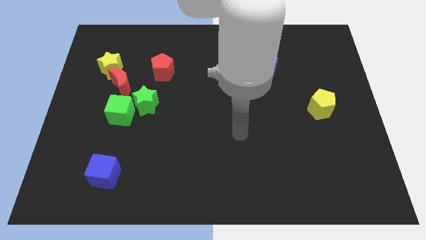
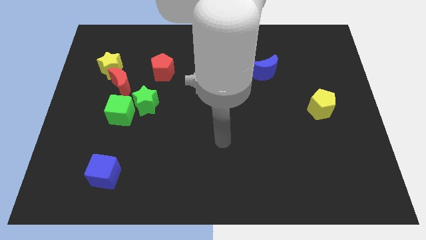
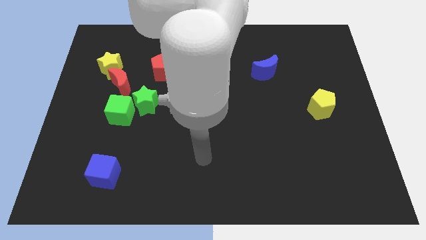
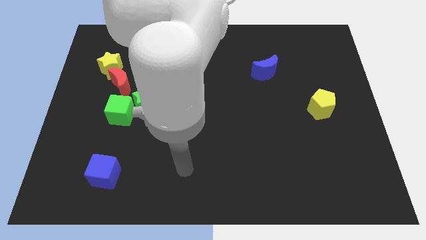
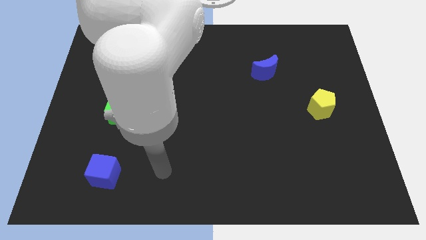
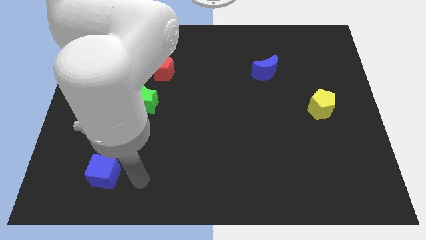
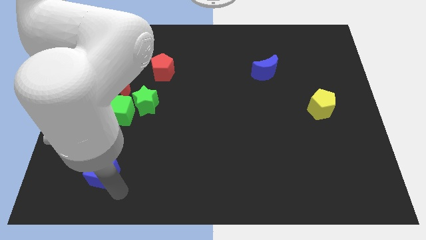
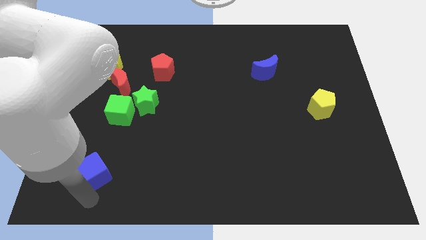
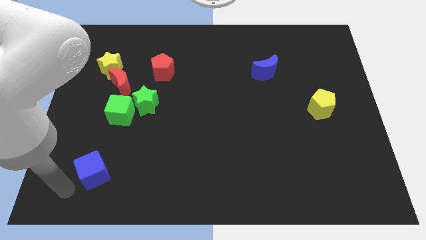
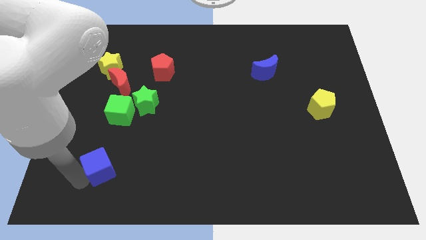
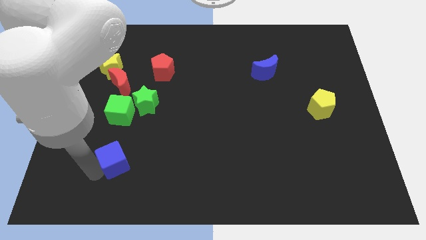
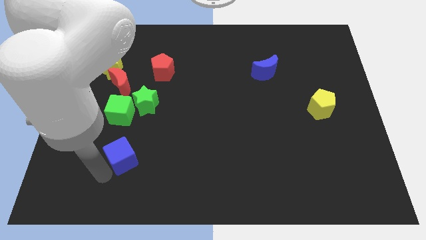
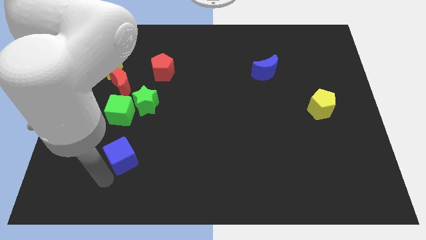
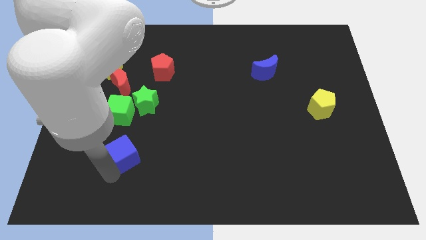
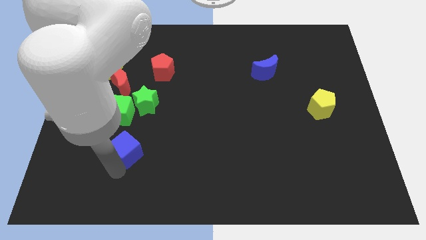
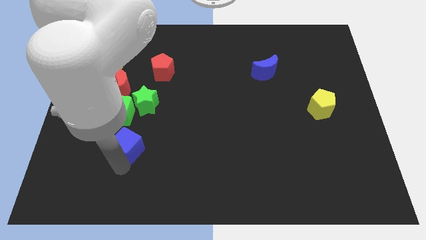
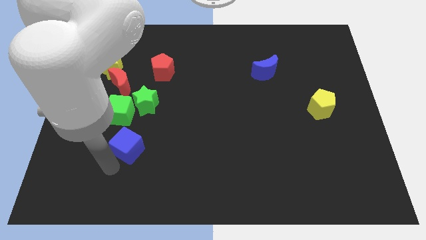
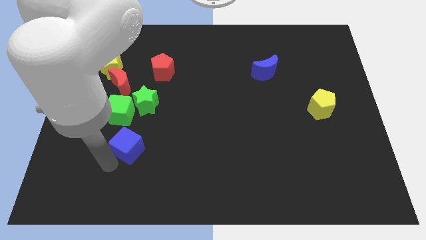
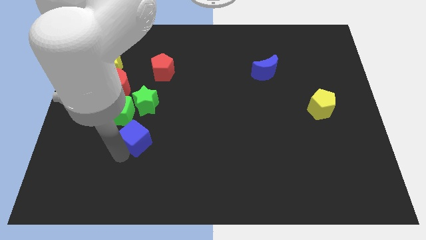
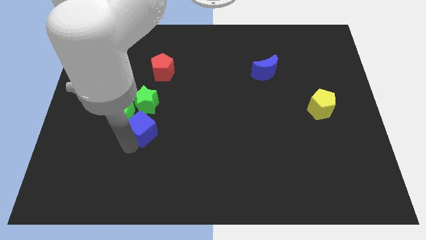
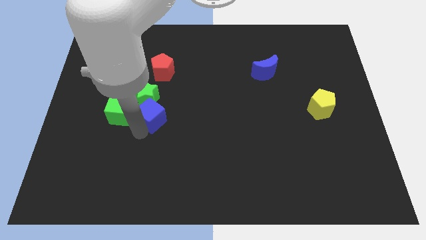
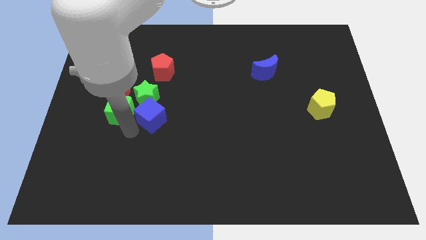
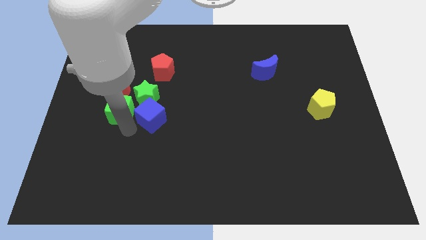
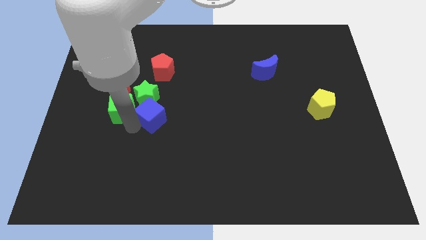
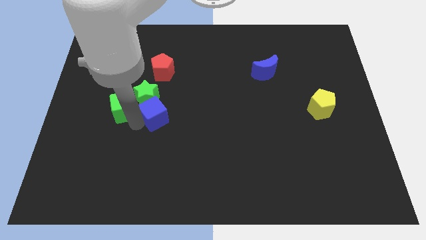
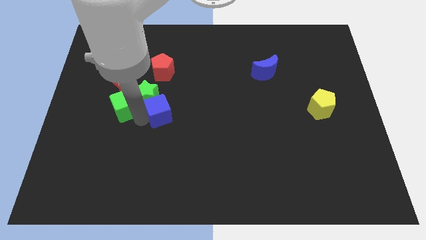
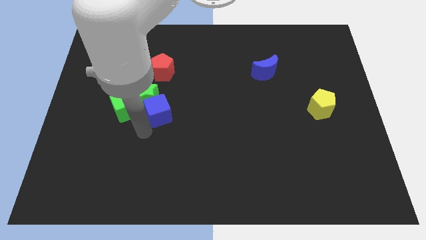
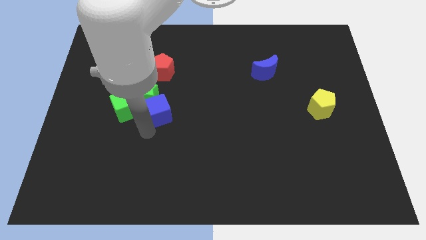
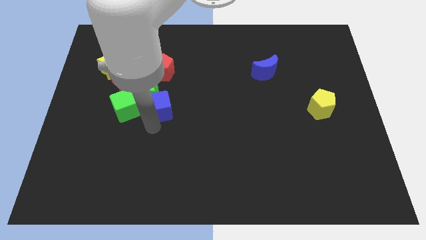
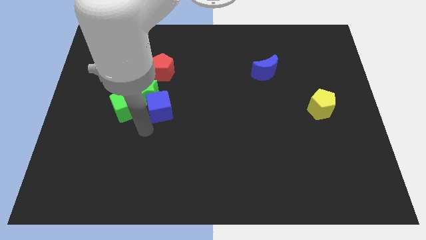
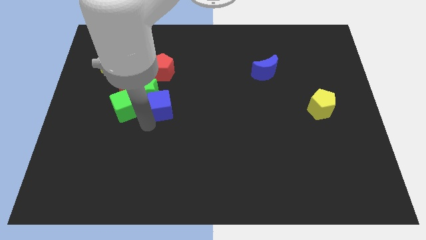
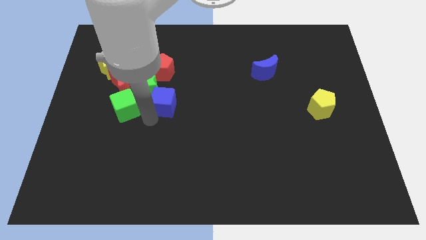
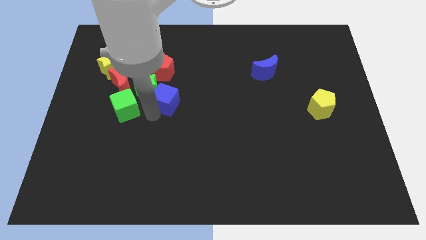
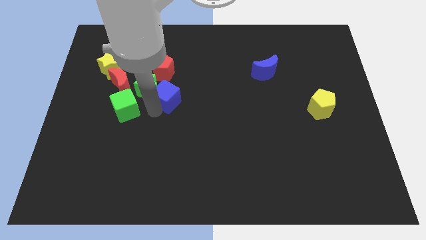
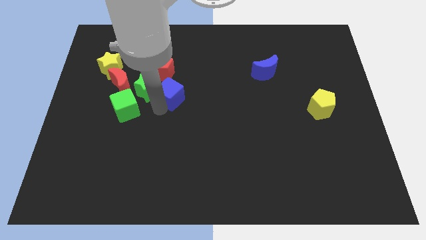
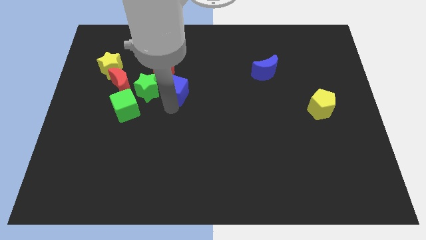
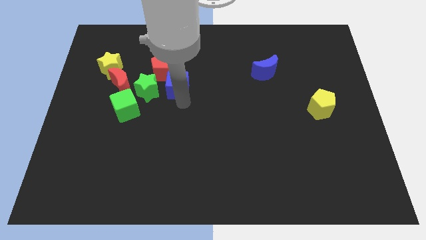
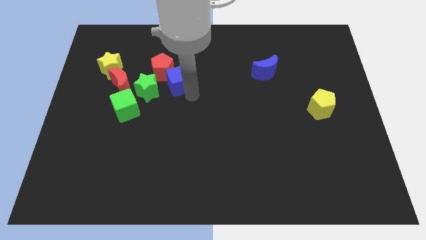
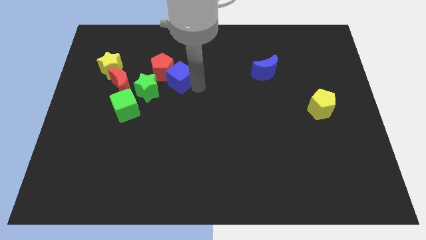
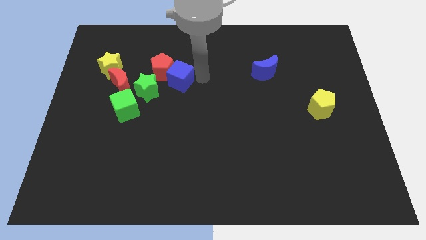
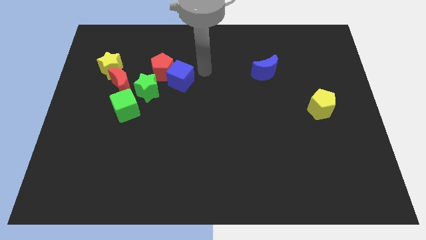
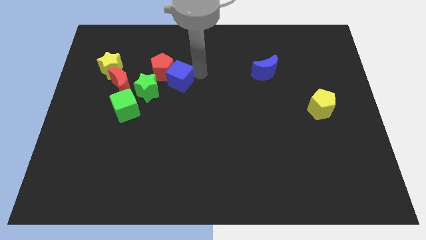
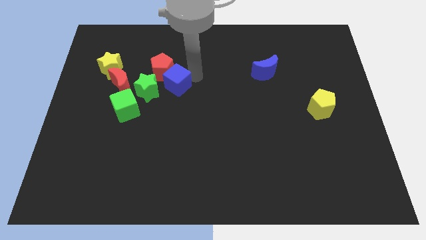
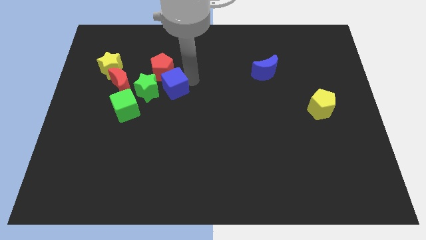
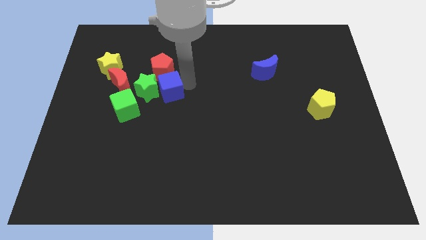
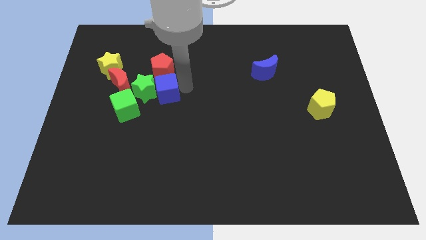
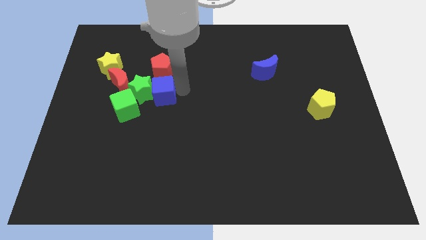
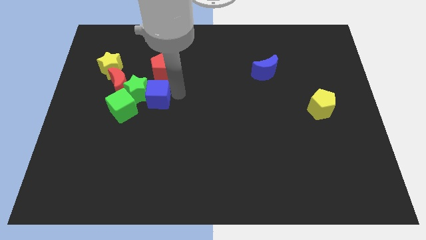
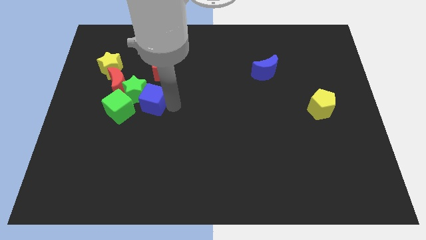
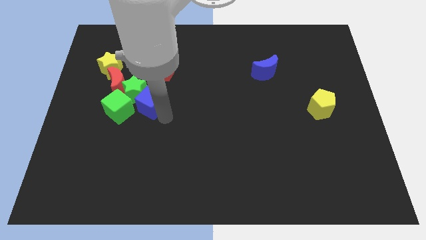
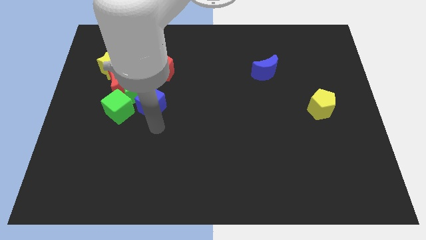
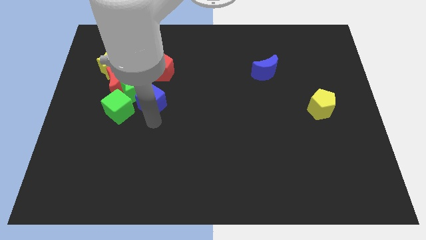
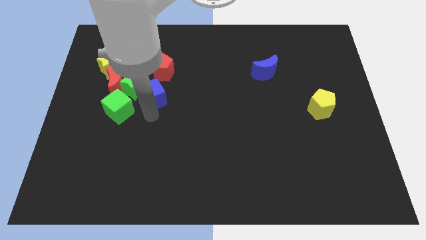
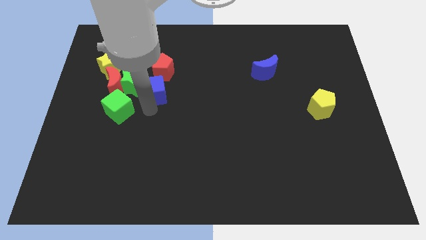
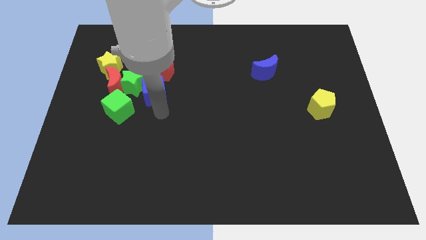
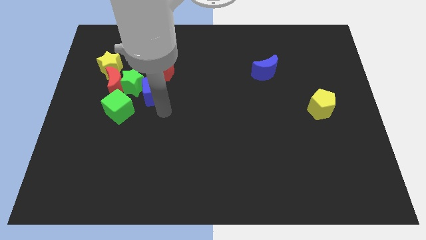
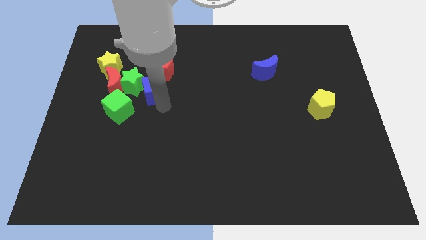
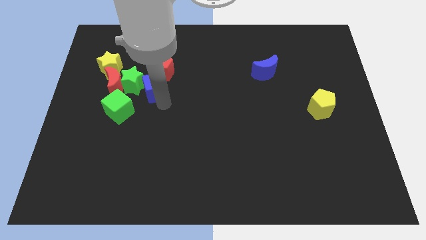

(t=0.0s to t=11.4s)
slide the blue cube up

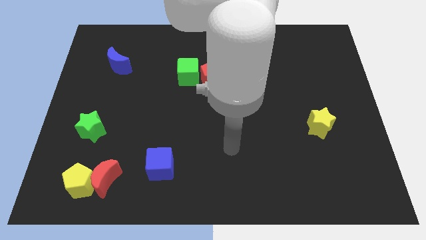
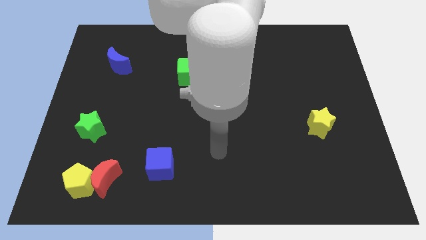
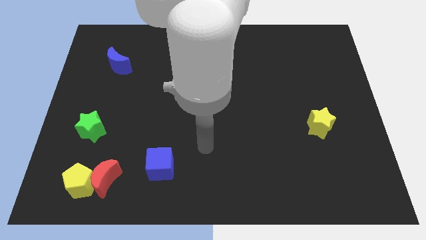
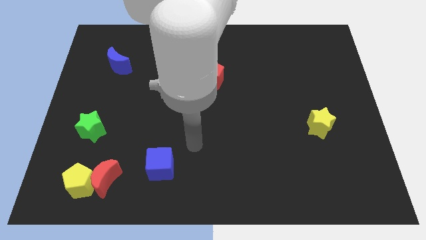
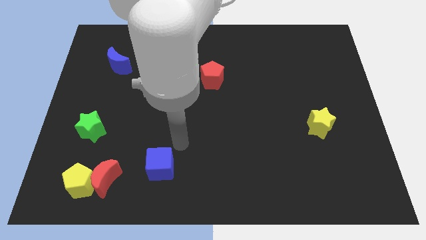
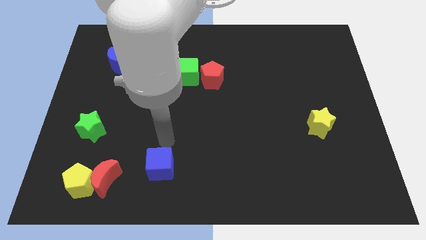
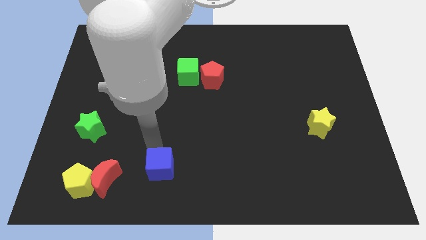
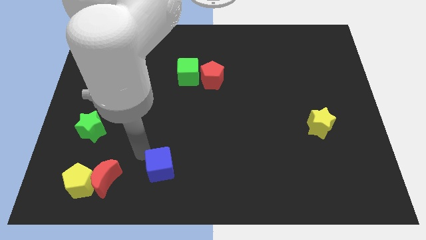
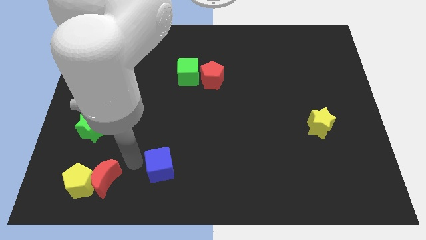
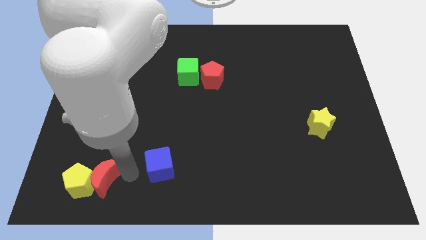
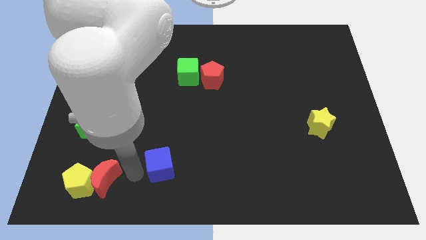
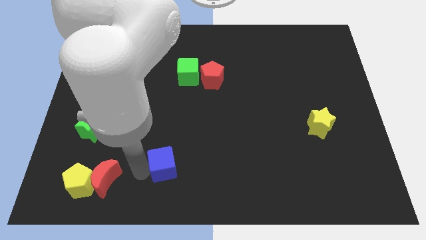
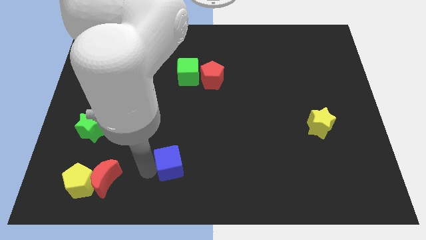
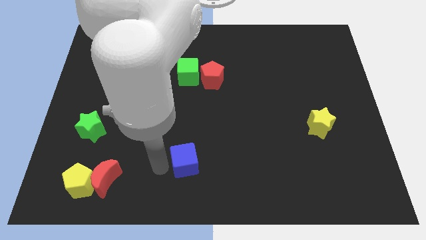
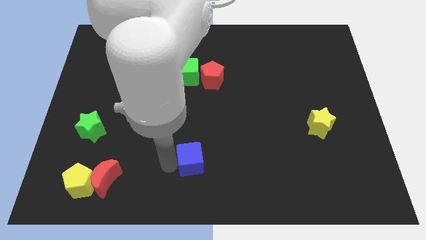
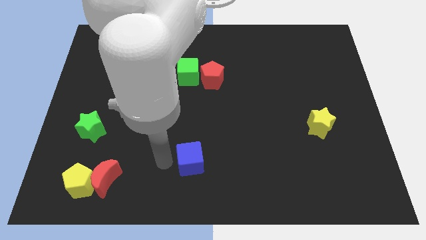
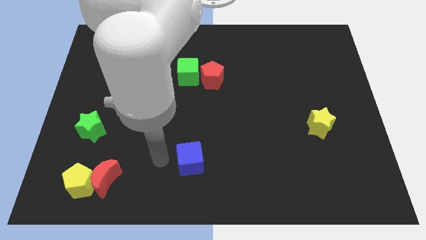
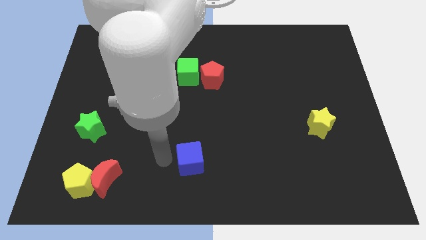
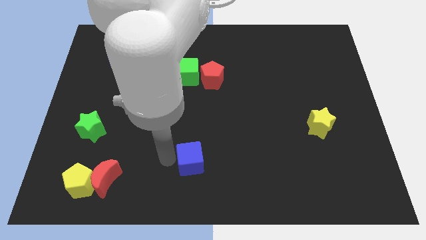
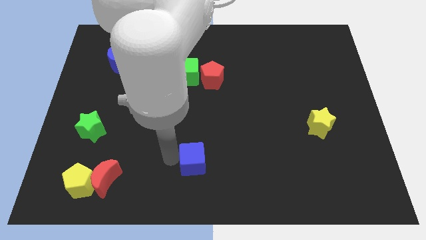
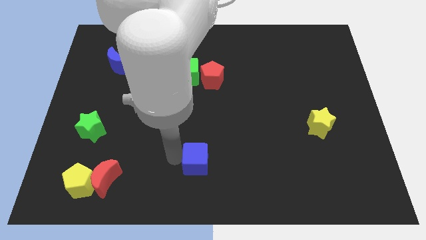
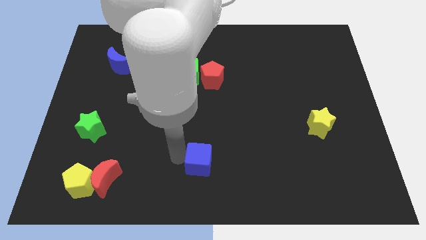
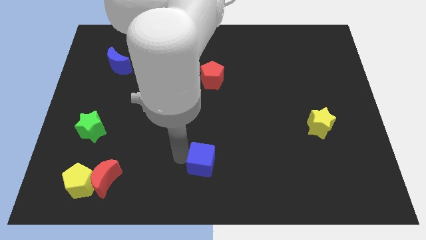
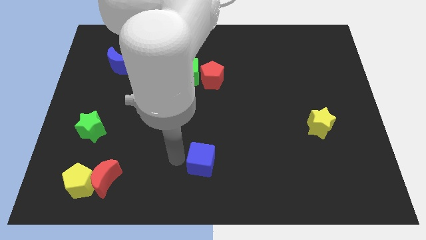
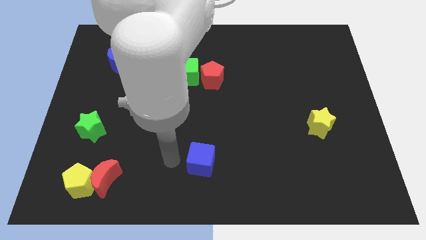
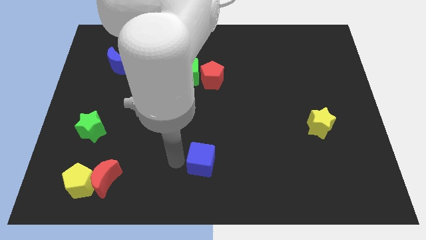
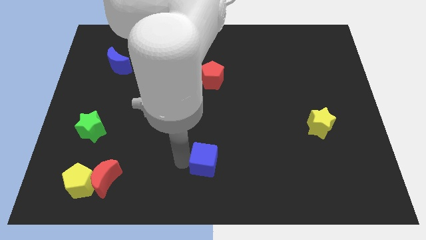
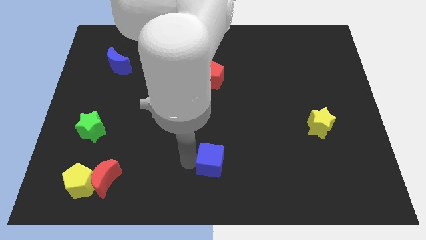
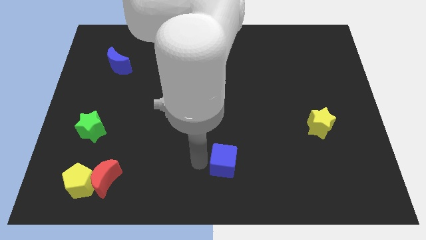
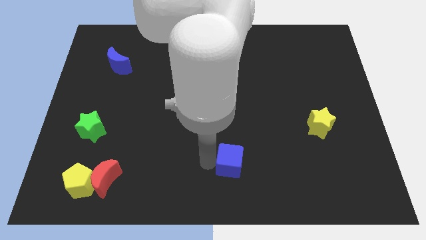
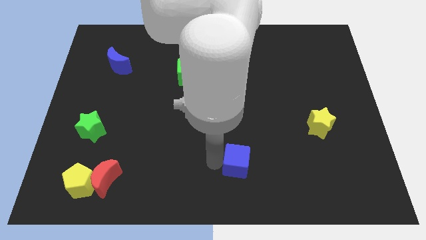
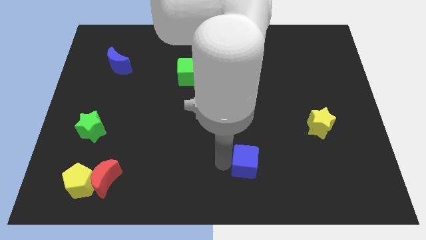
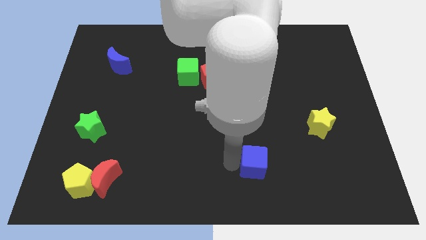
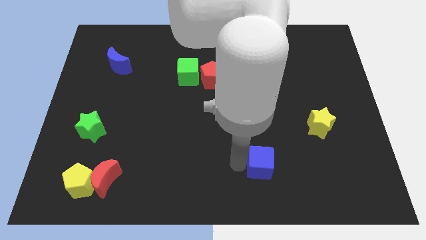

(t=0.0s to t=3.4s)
move the blue cube right
